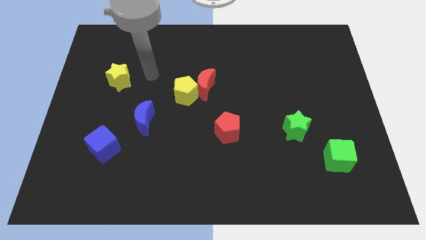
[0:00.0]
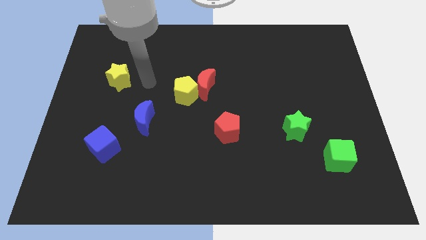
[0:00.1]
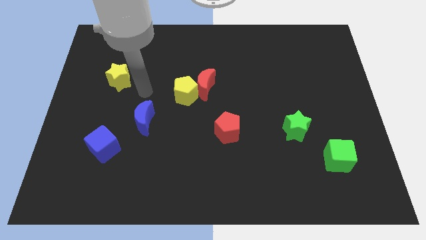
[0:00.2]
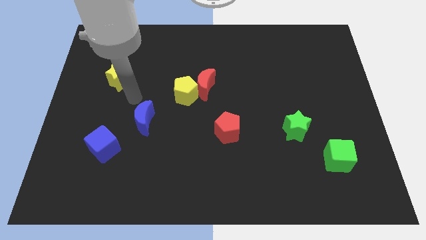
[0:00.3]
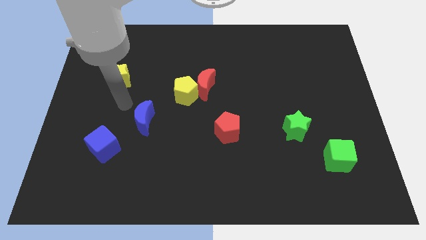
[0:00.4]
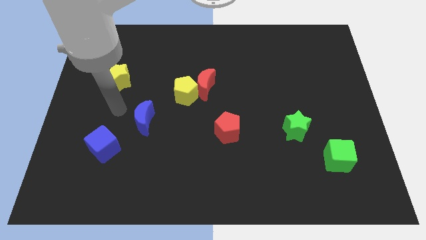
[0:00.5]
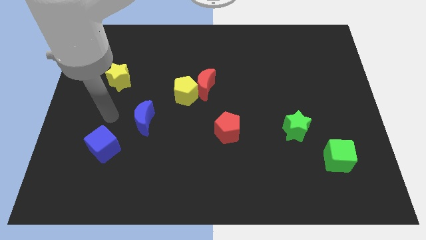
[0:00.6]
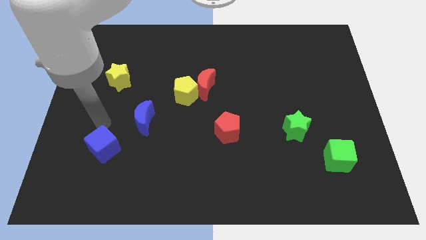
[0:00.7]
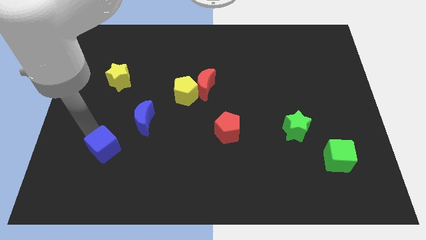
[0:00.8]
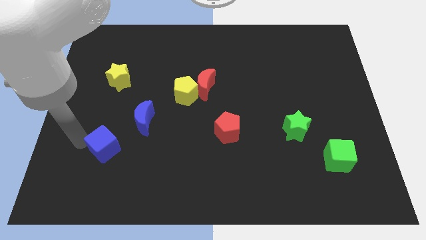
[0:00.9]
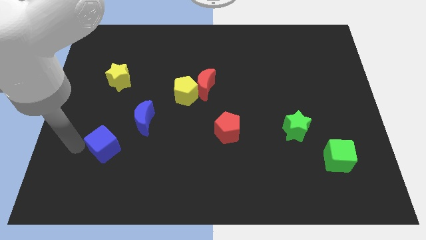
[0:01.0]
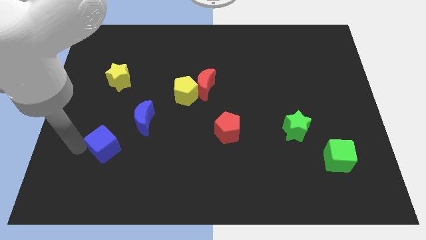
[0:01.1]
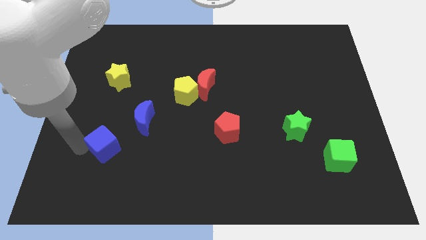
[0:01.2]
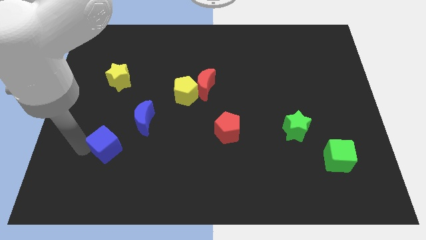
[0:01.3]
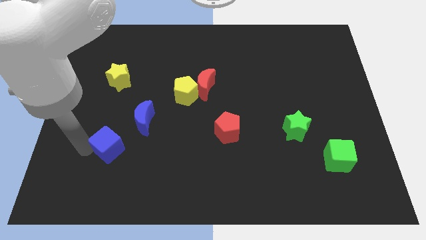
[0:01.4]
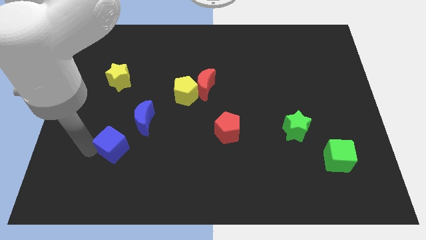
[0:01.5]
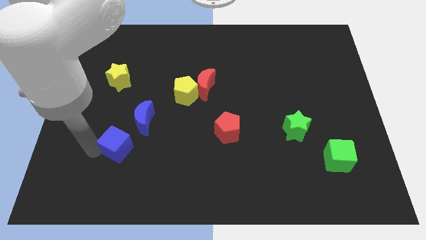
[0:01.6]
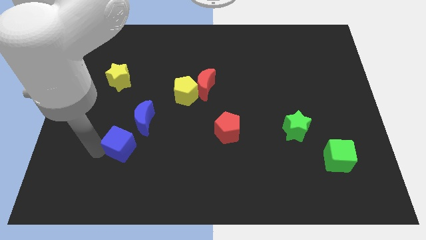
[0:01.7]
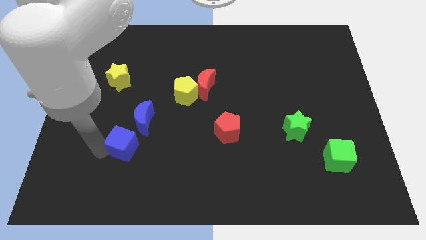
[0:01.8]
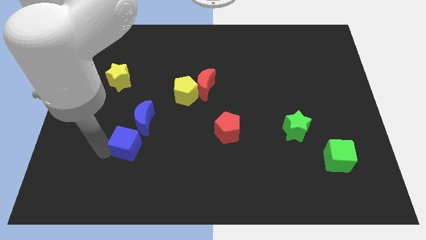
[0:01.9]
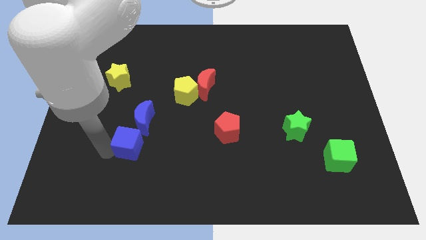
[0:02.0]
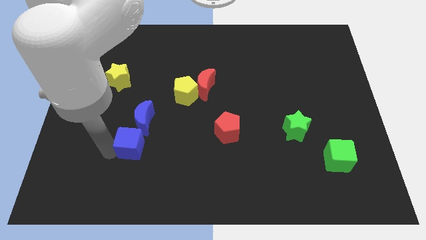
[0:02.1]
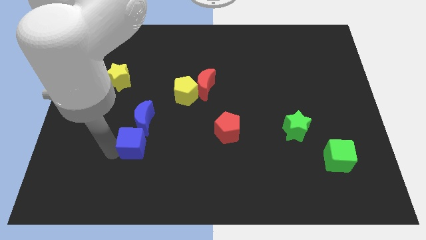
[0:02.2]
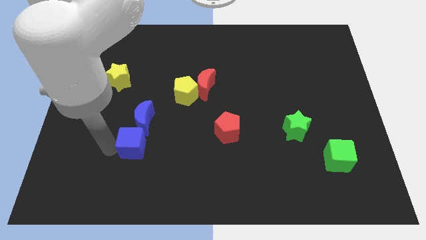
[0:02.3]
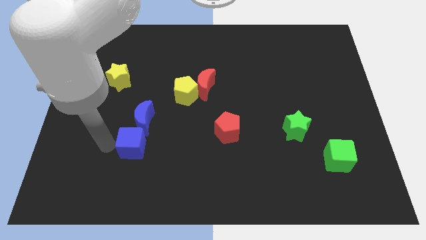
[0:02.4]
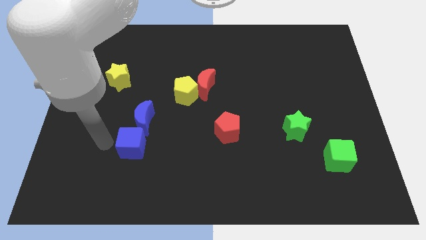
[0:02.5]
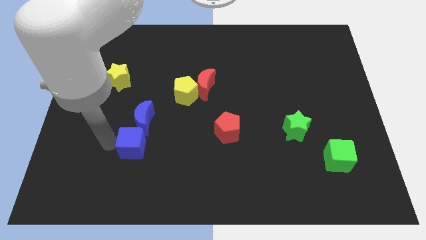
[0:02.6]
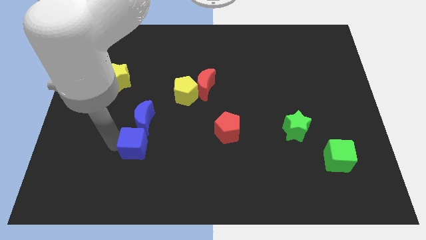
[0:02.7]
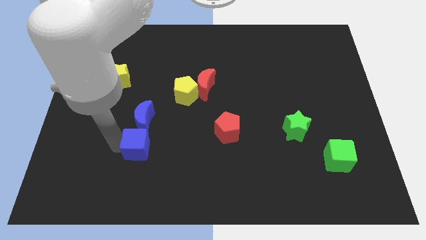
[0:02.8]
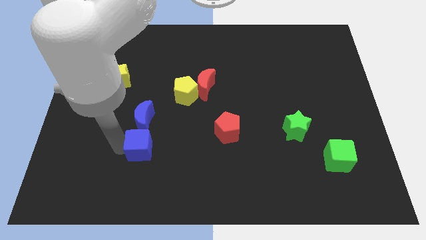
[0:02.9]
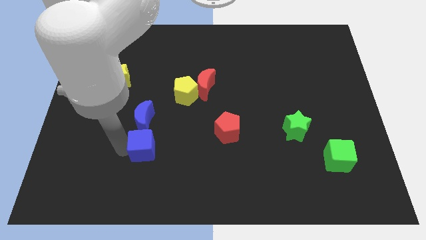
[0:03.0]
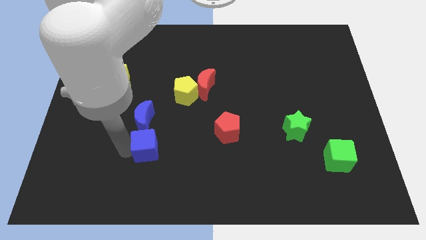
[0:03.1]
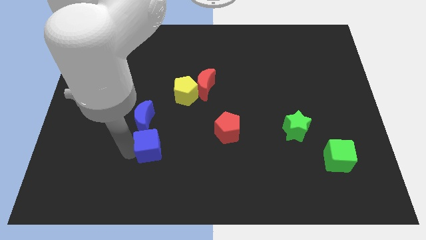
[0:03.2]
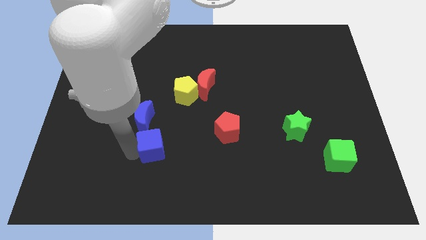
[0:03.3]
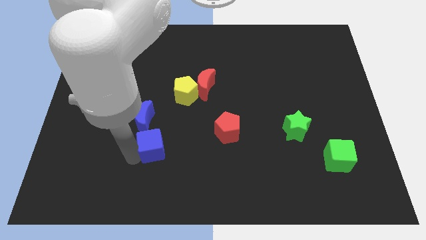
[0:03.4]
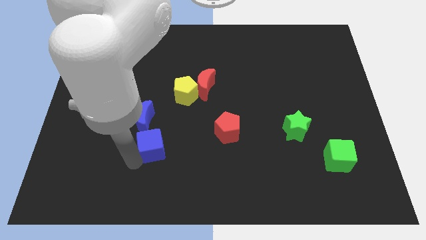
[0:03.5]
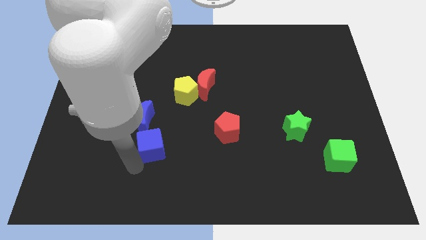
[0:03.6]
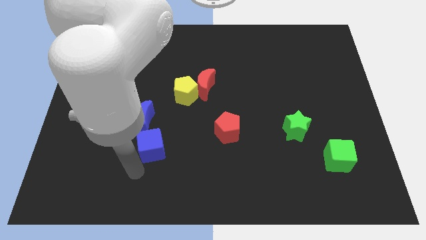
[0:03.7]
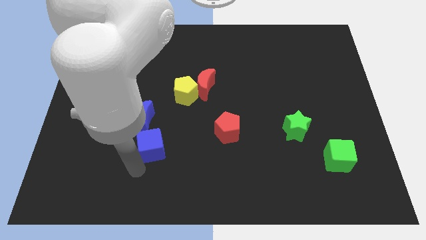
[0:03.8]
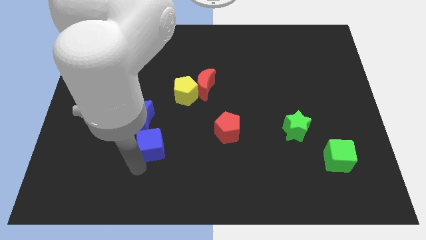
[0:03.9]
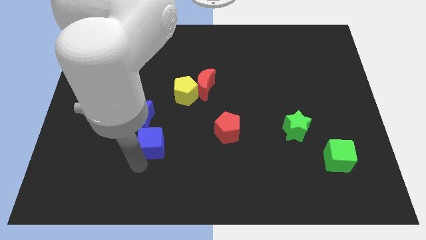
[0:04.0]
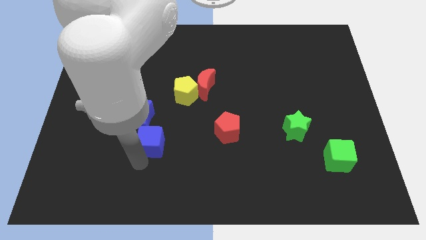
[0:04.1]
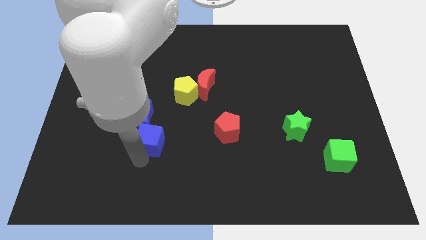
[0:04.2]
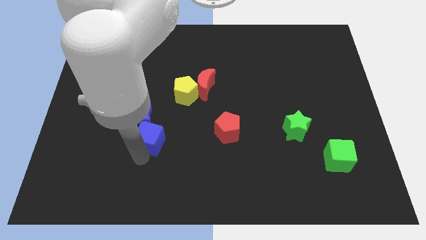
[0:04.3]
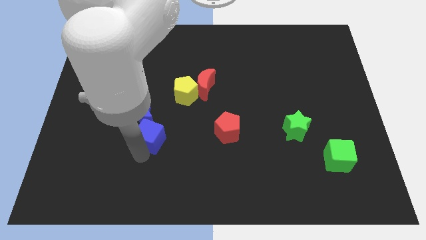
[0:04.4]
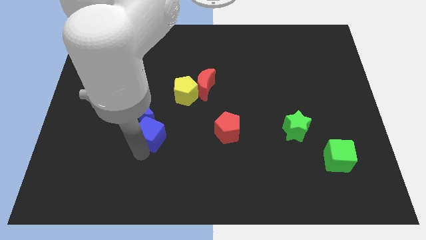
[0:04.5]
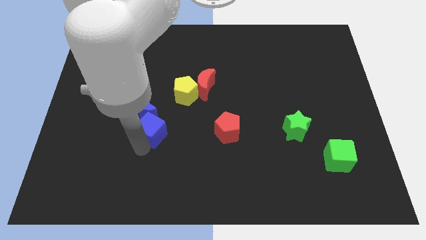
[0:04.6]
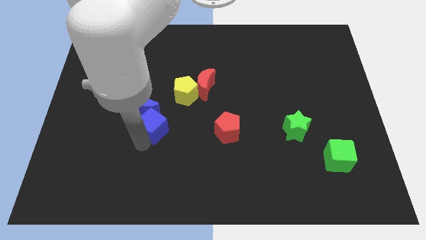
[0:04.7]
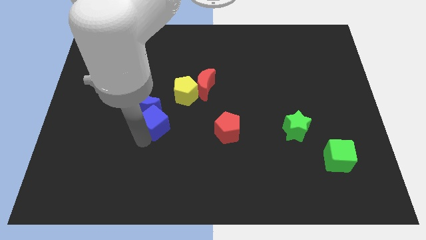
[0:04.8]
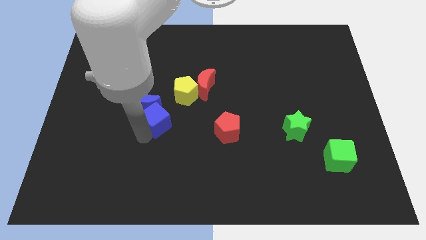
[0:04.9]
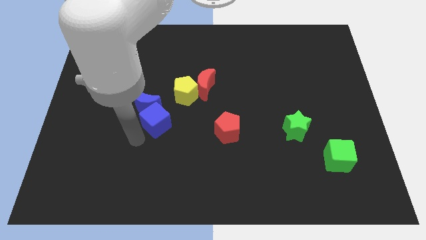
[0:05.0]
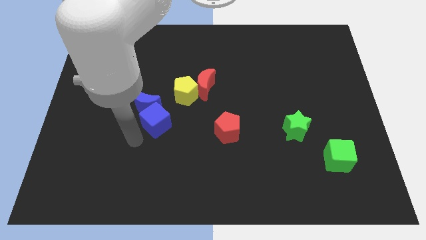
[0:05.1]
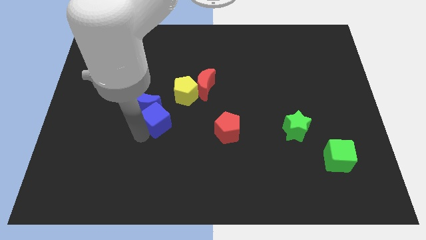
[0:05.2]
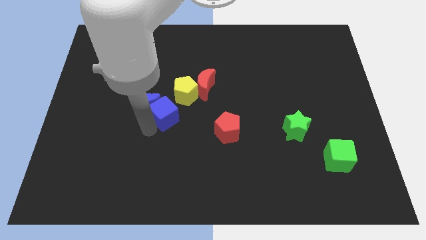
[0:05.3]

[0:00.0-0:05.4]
move the blue cube to the bottom left side of the red moon
